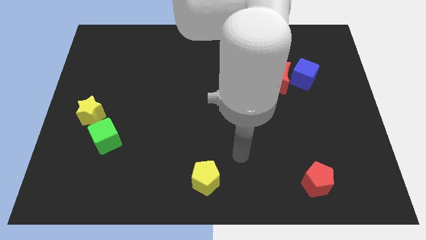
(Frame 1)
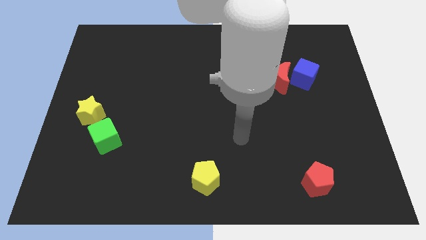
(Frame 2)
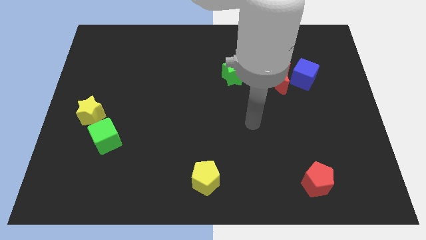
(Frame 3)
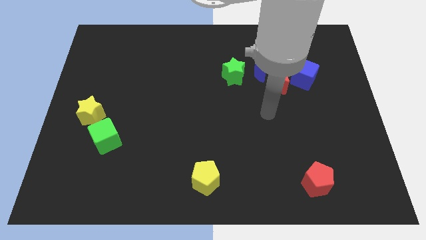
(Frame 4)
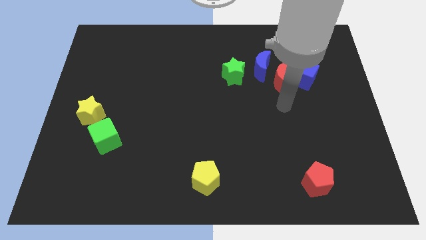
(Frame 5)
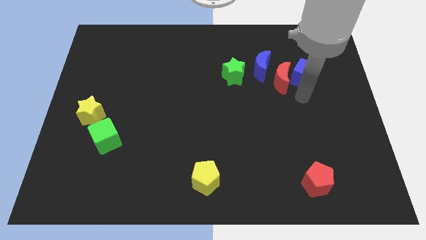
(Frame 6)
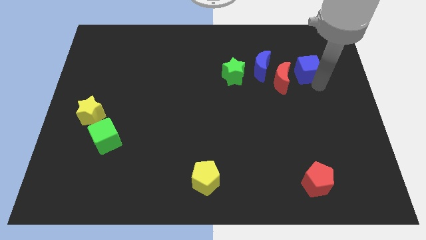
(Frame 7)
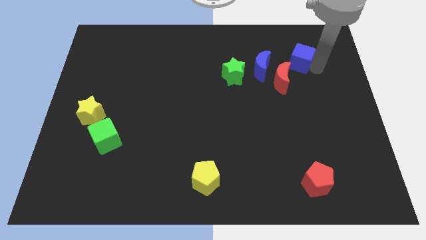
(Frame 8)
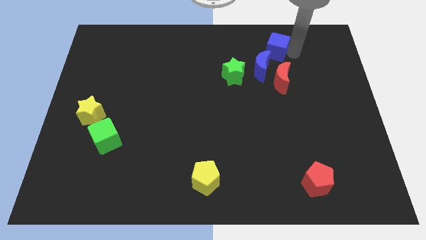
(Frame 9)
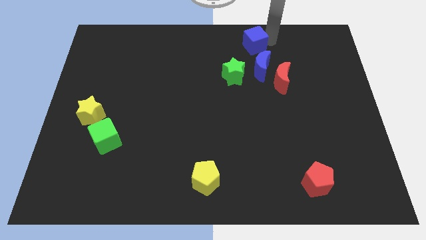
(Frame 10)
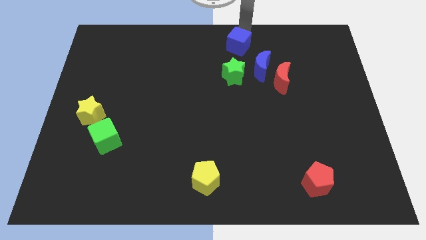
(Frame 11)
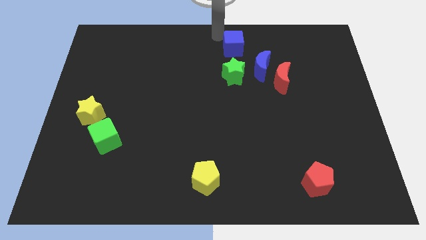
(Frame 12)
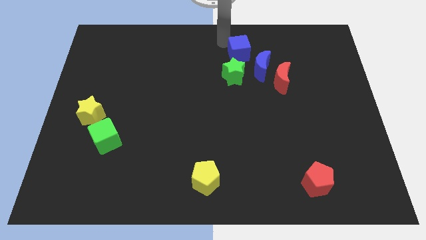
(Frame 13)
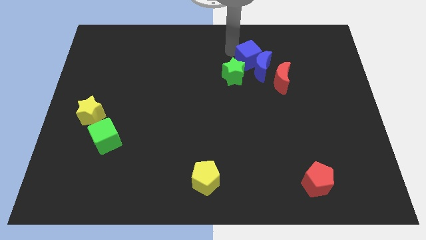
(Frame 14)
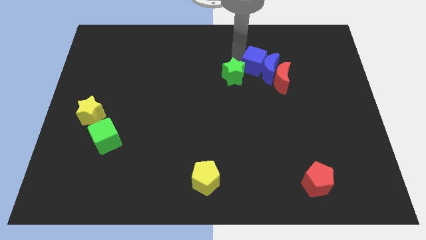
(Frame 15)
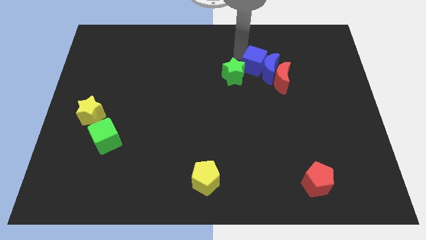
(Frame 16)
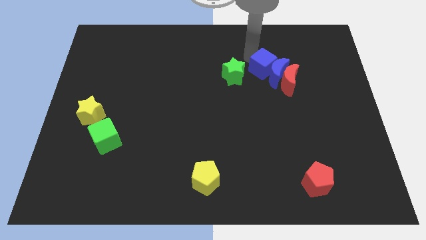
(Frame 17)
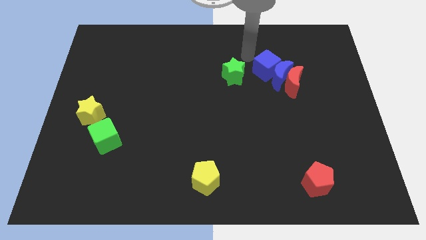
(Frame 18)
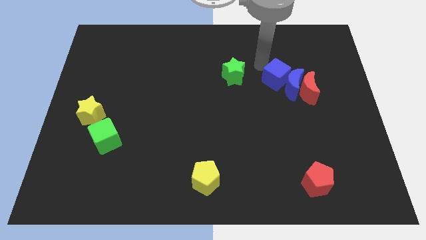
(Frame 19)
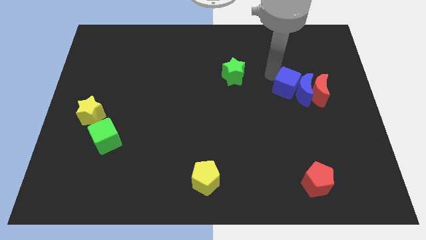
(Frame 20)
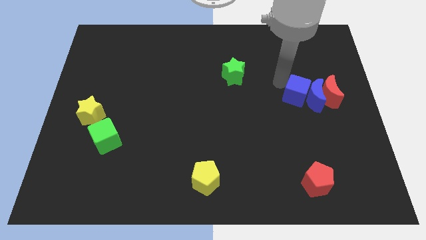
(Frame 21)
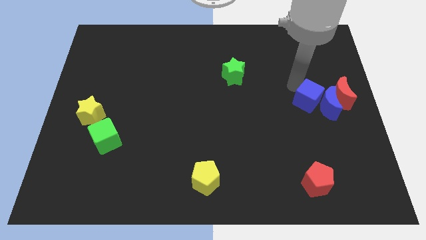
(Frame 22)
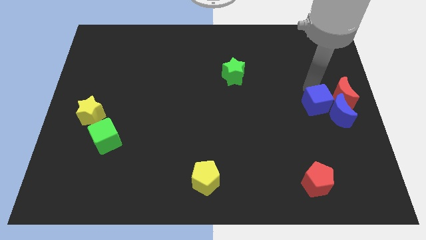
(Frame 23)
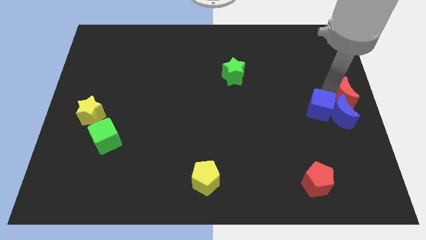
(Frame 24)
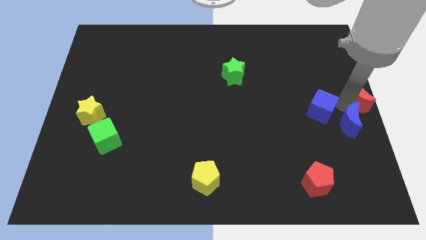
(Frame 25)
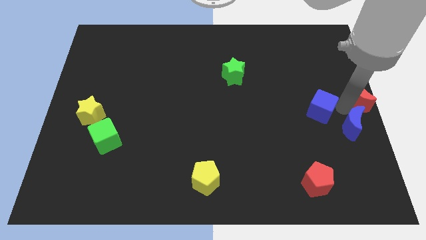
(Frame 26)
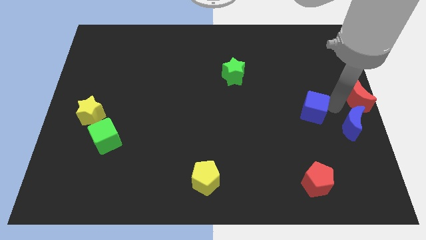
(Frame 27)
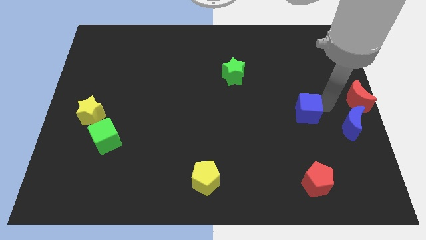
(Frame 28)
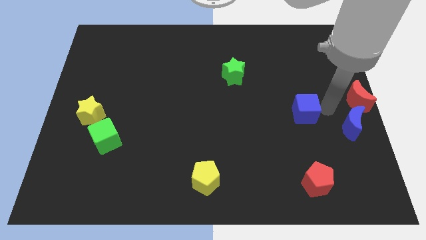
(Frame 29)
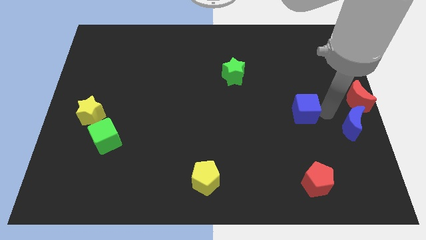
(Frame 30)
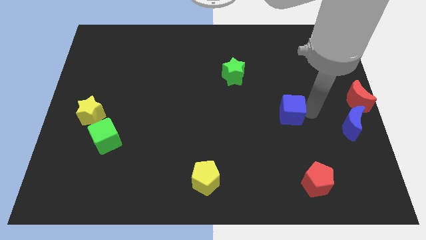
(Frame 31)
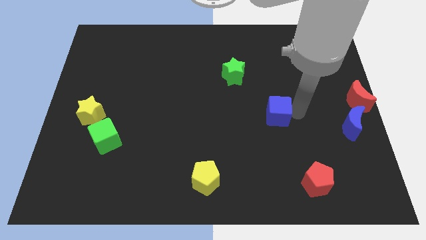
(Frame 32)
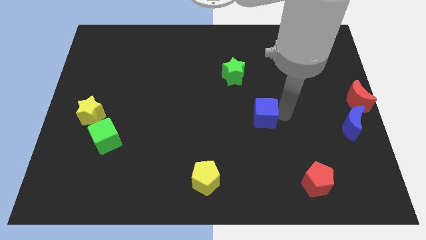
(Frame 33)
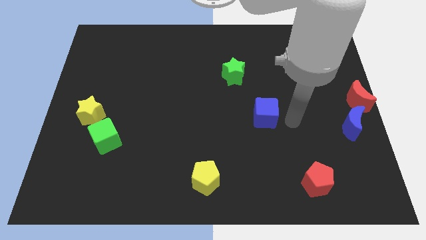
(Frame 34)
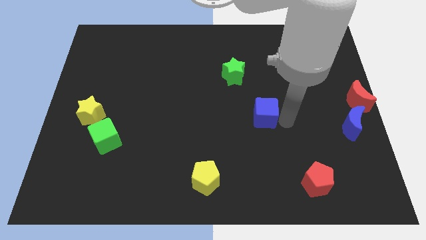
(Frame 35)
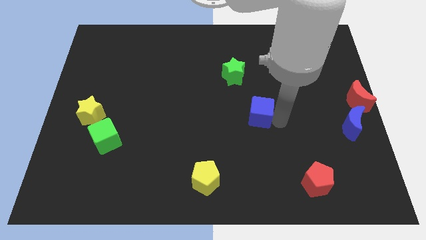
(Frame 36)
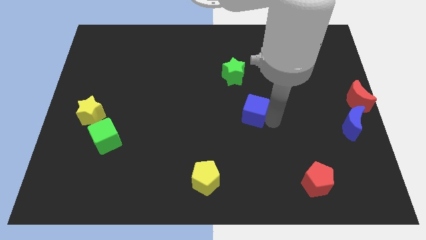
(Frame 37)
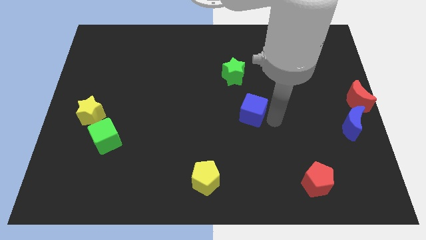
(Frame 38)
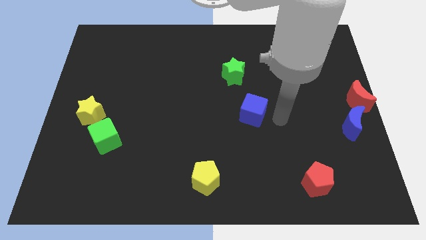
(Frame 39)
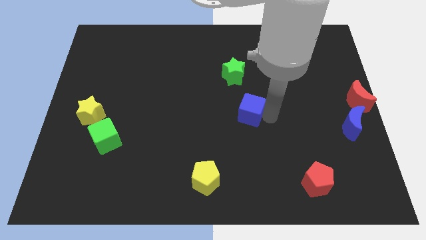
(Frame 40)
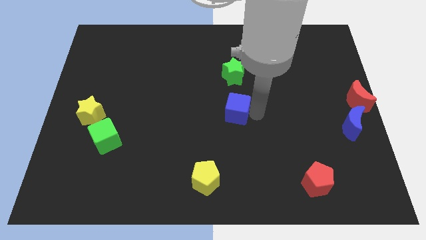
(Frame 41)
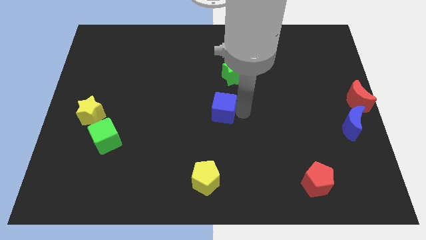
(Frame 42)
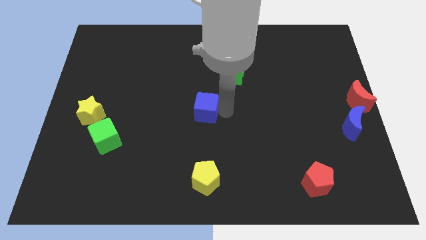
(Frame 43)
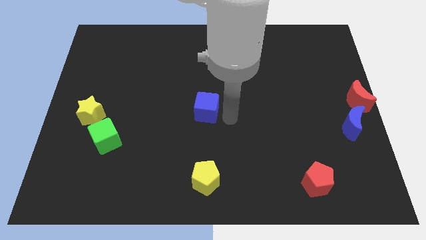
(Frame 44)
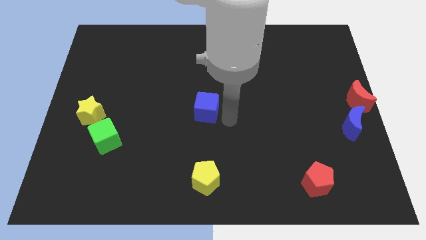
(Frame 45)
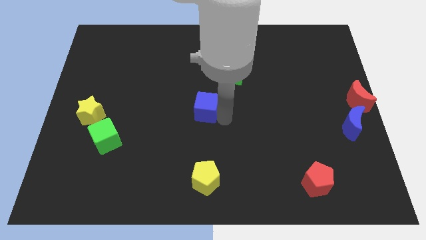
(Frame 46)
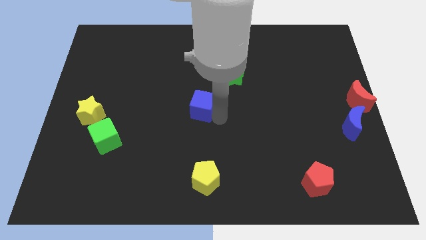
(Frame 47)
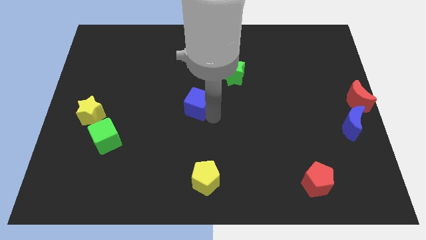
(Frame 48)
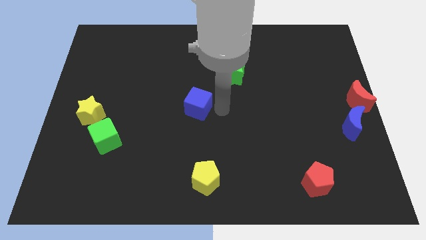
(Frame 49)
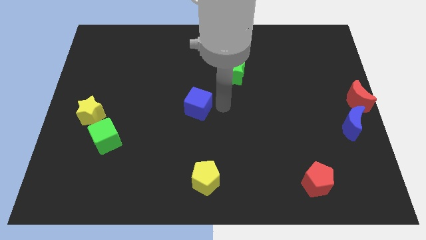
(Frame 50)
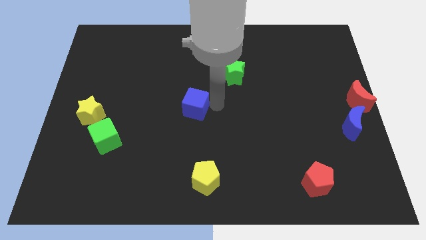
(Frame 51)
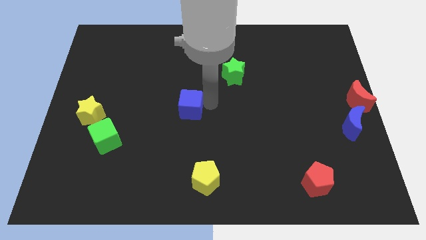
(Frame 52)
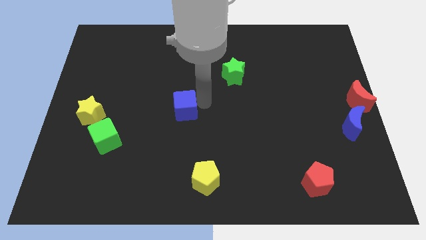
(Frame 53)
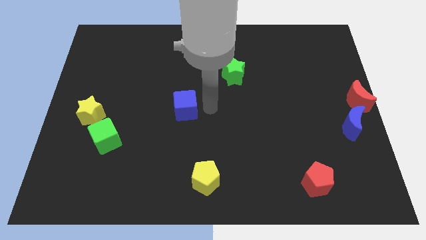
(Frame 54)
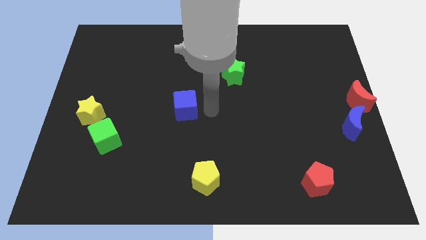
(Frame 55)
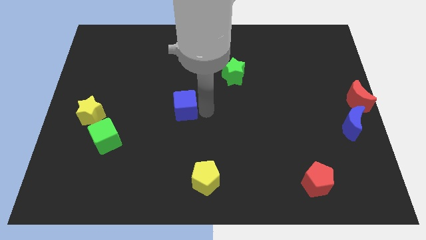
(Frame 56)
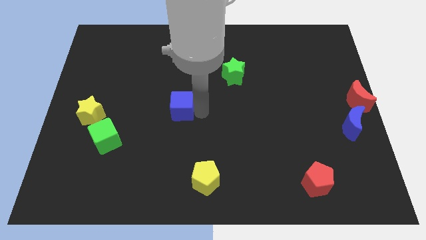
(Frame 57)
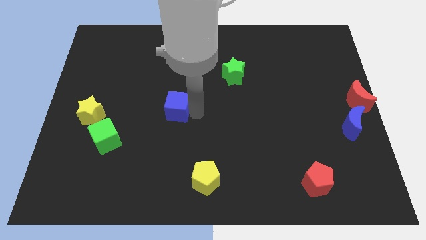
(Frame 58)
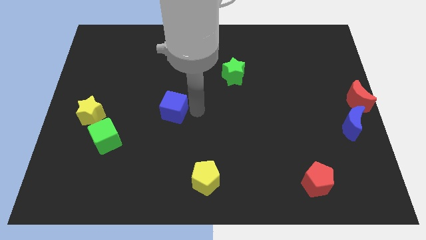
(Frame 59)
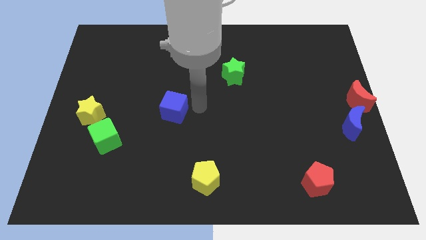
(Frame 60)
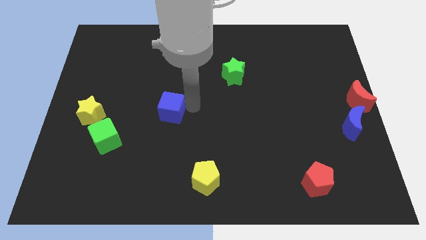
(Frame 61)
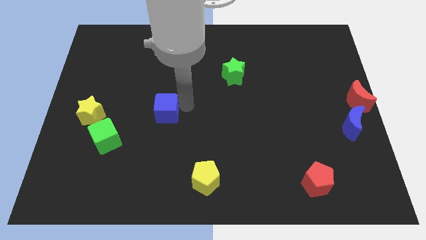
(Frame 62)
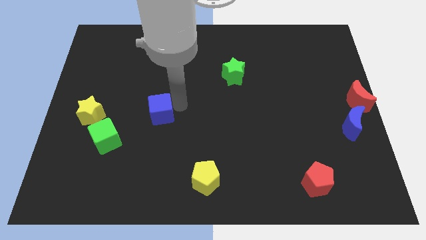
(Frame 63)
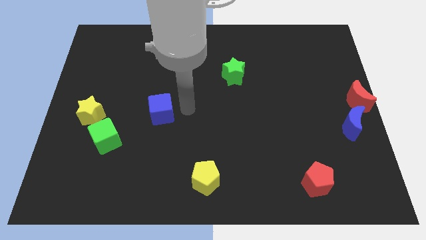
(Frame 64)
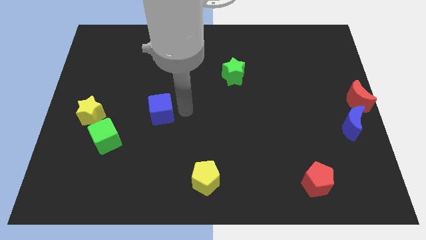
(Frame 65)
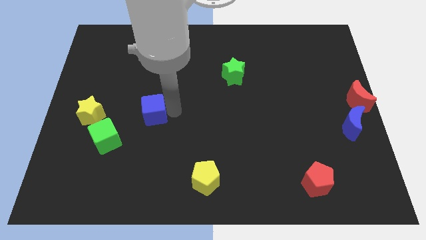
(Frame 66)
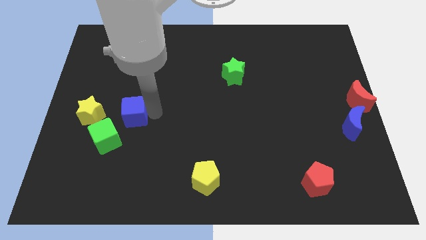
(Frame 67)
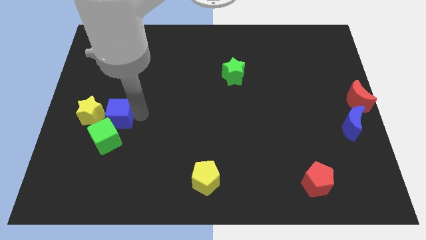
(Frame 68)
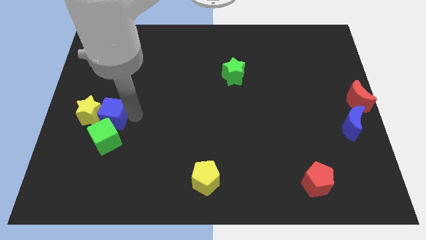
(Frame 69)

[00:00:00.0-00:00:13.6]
put the blue cube to the yellow star
